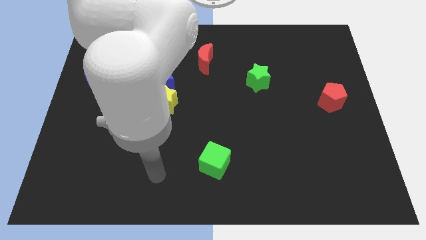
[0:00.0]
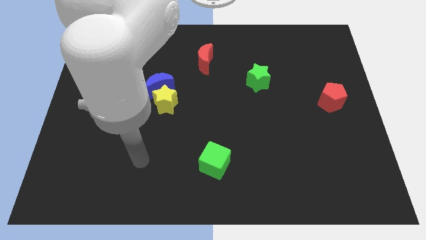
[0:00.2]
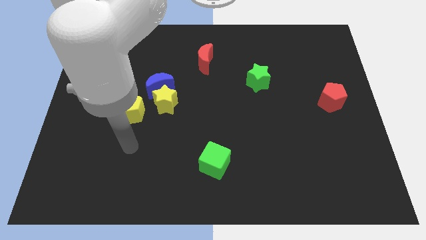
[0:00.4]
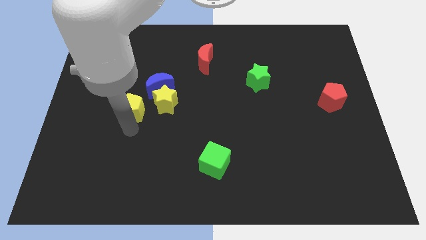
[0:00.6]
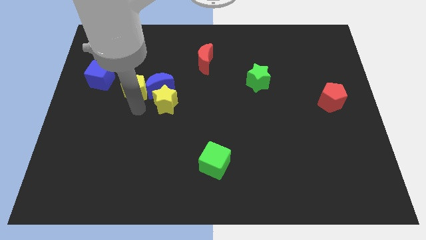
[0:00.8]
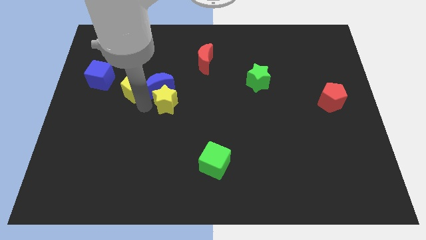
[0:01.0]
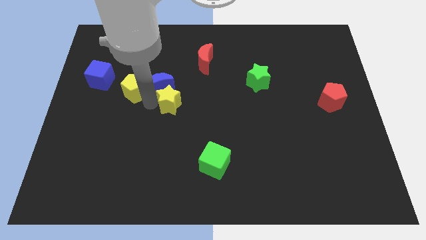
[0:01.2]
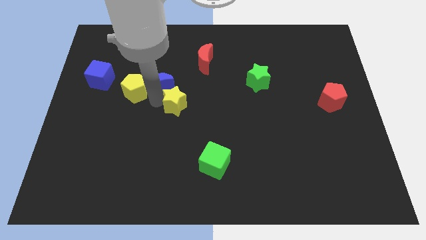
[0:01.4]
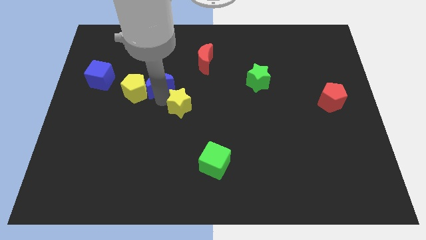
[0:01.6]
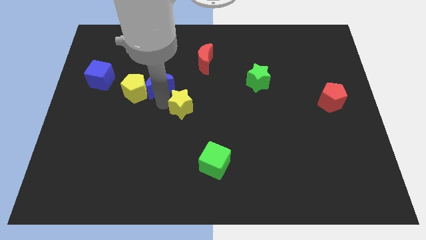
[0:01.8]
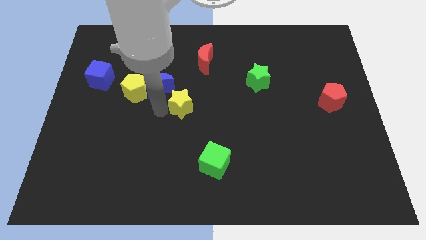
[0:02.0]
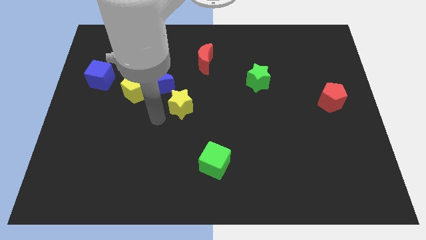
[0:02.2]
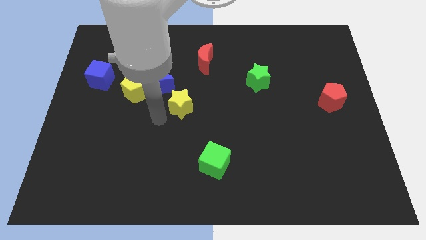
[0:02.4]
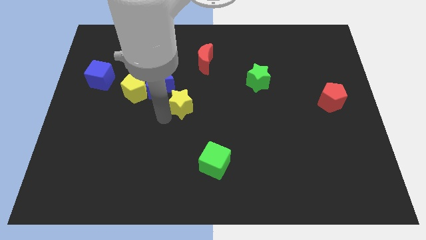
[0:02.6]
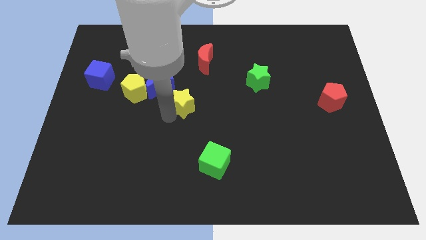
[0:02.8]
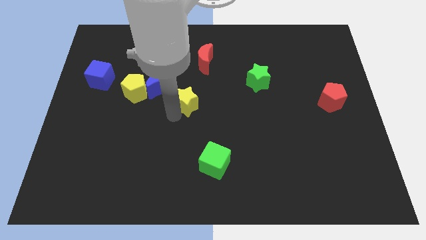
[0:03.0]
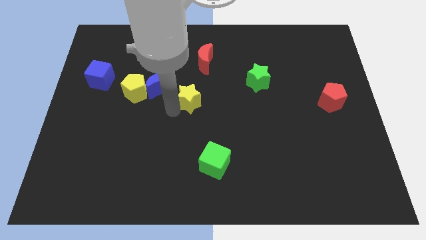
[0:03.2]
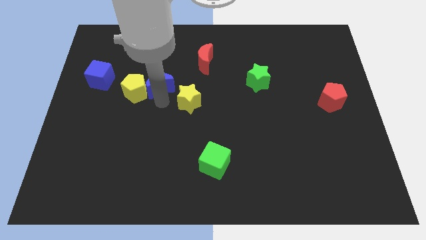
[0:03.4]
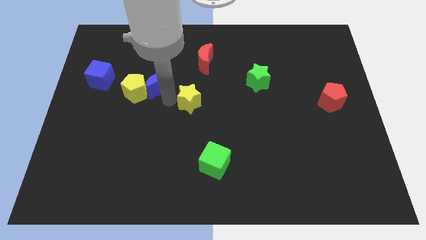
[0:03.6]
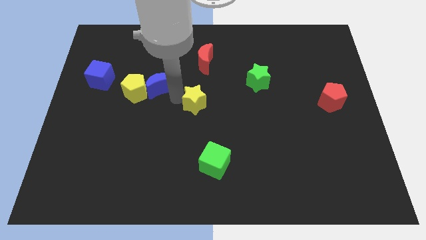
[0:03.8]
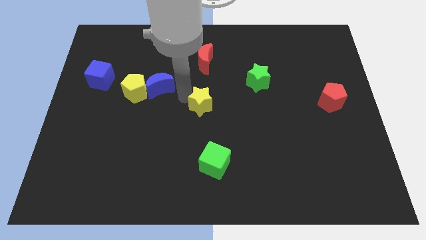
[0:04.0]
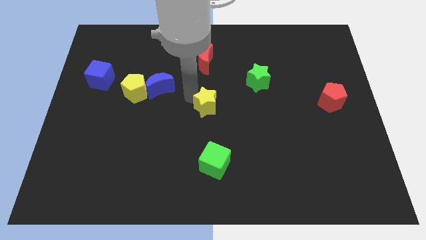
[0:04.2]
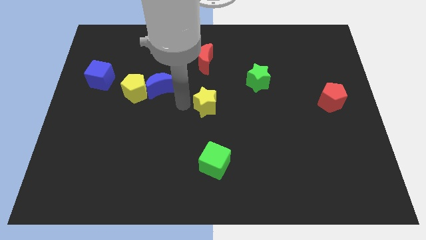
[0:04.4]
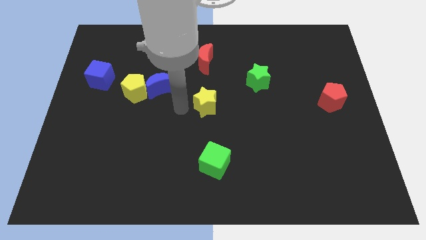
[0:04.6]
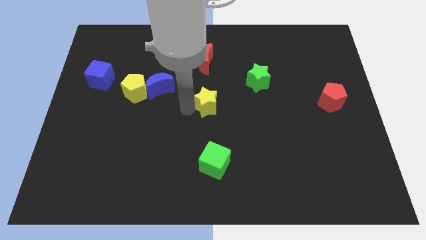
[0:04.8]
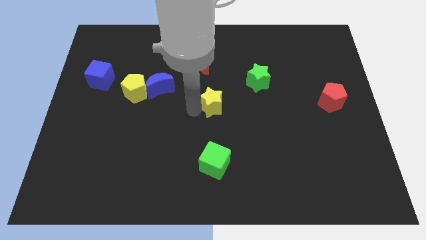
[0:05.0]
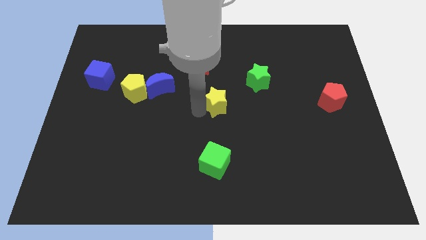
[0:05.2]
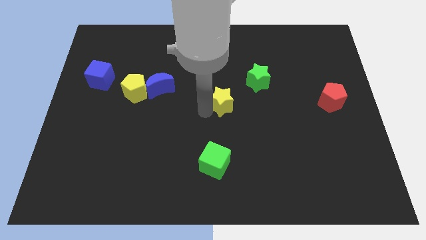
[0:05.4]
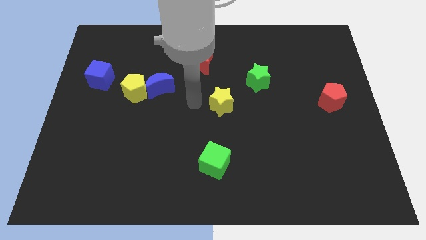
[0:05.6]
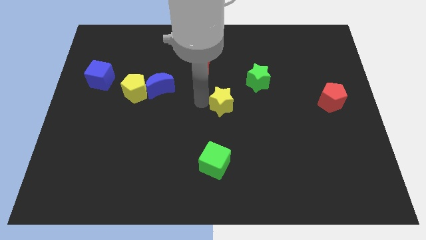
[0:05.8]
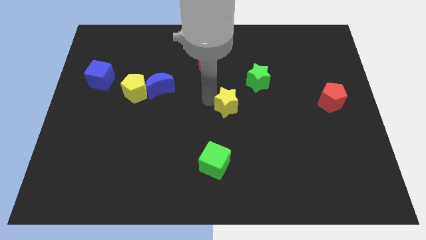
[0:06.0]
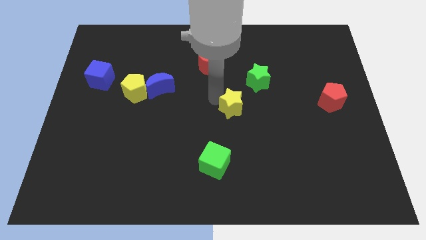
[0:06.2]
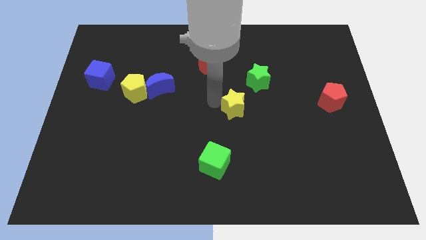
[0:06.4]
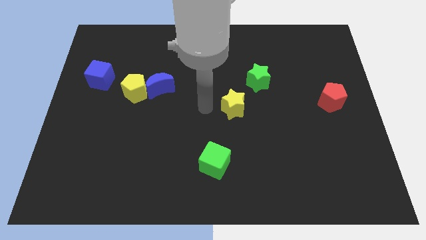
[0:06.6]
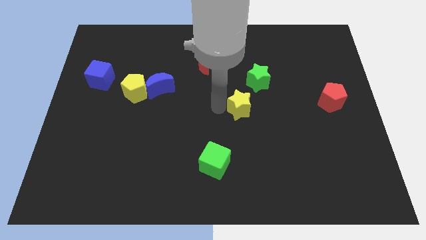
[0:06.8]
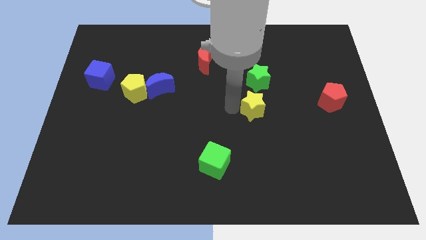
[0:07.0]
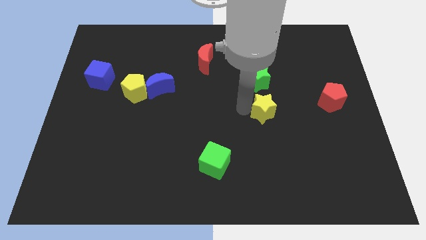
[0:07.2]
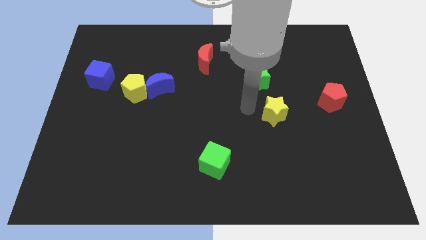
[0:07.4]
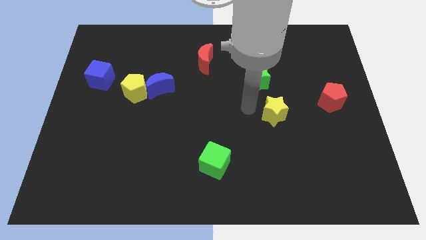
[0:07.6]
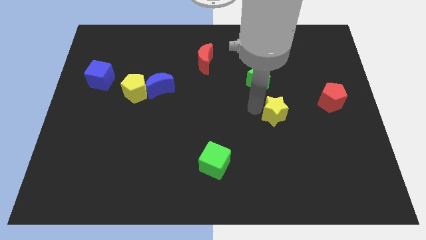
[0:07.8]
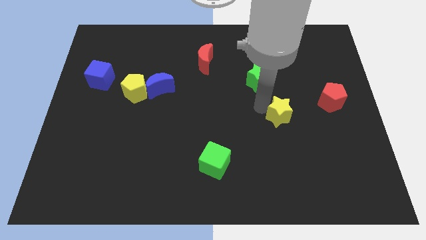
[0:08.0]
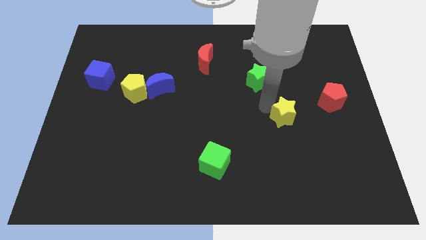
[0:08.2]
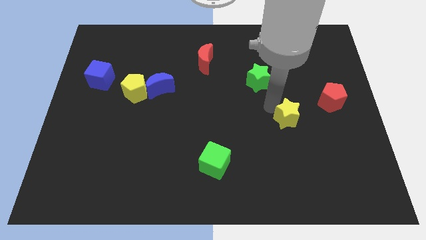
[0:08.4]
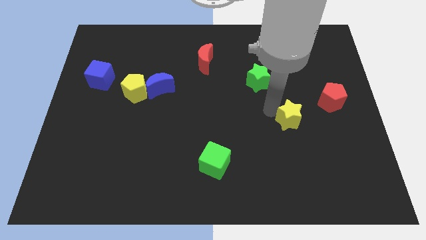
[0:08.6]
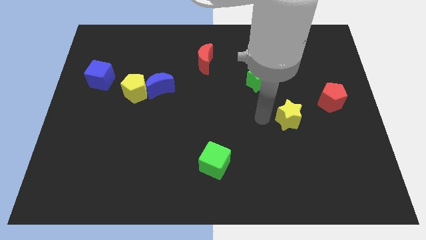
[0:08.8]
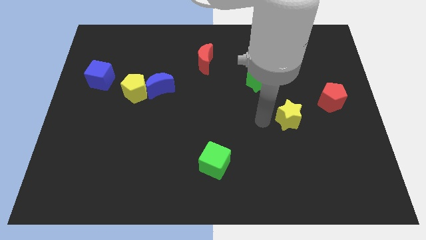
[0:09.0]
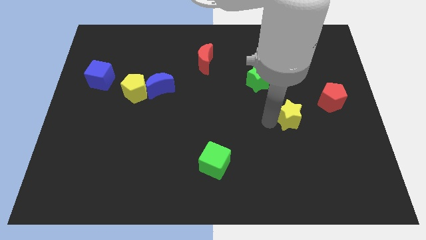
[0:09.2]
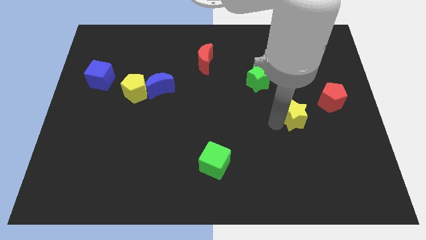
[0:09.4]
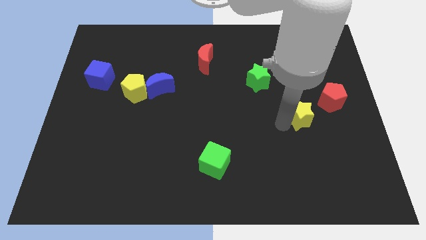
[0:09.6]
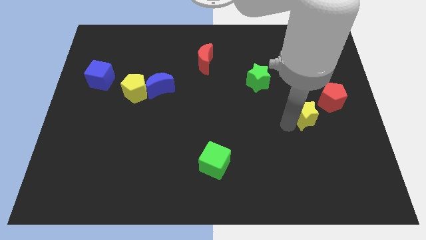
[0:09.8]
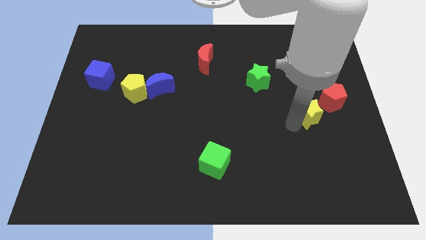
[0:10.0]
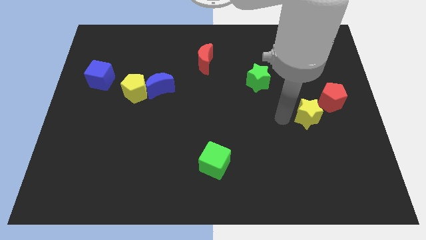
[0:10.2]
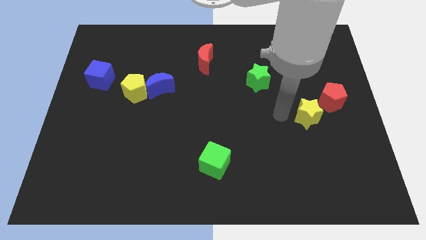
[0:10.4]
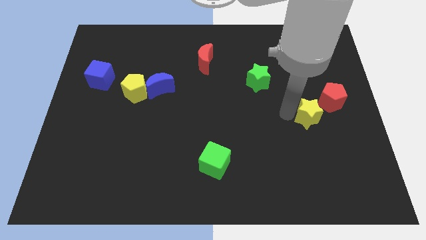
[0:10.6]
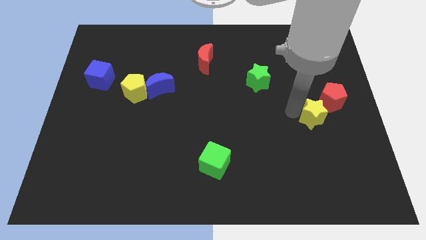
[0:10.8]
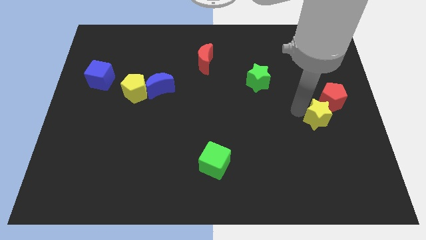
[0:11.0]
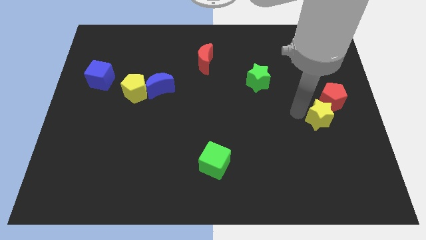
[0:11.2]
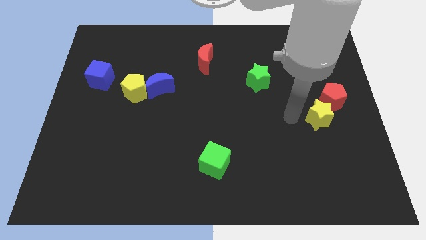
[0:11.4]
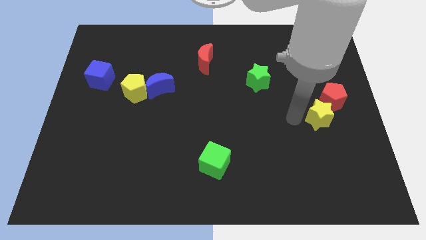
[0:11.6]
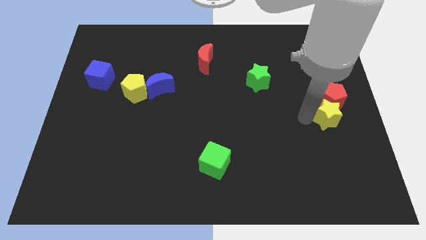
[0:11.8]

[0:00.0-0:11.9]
put the yellow star to the right side

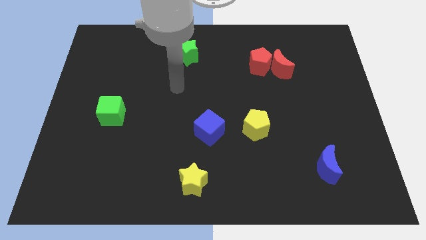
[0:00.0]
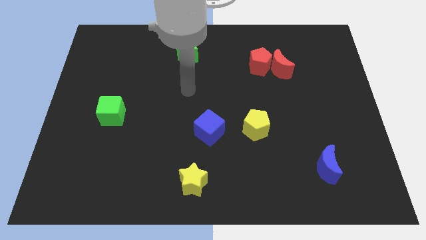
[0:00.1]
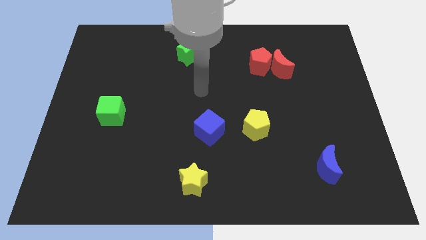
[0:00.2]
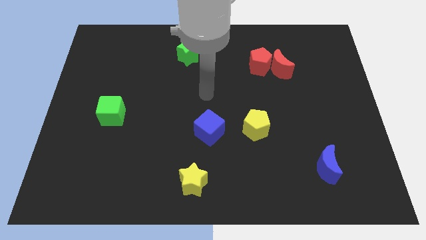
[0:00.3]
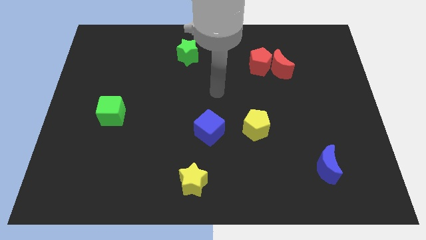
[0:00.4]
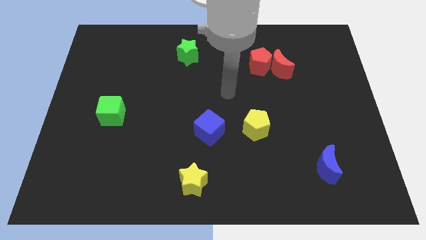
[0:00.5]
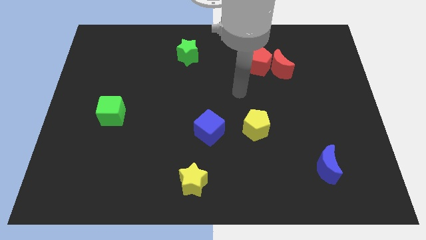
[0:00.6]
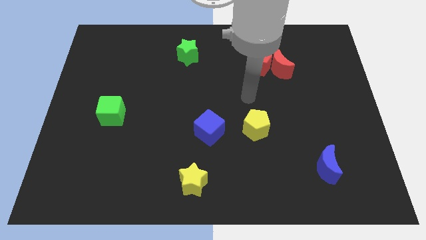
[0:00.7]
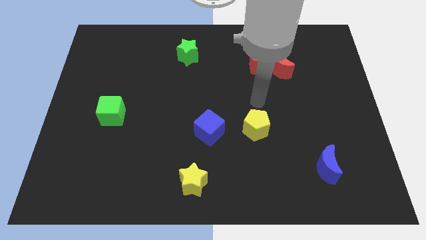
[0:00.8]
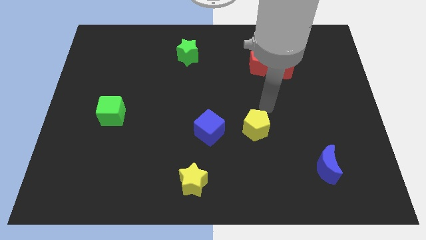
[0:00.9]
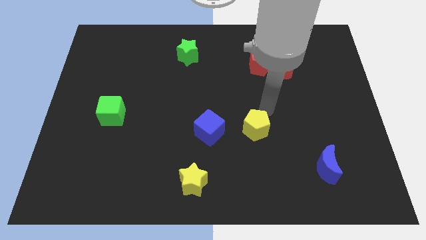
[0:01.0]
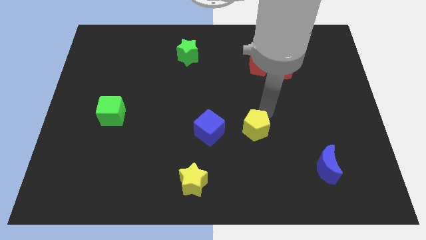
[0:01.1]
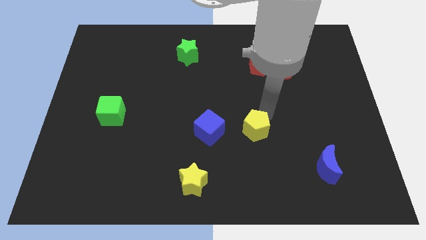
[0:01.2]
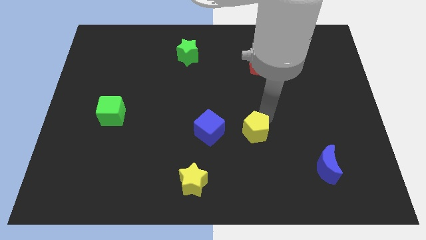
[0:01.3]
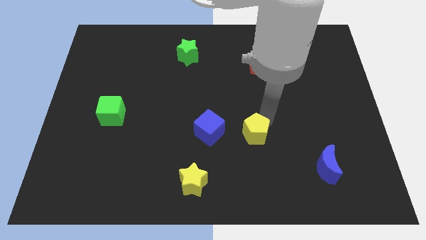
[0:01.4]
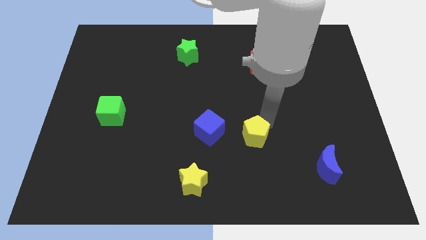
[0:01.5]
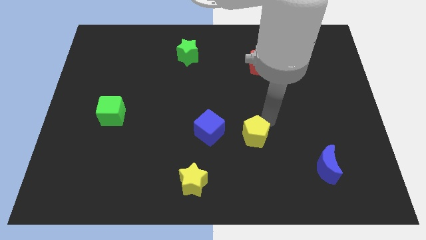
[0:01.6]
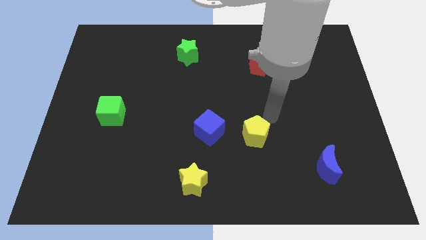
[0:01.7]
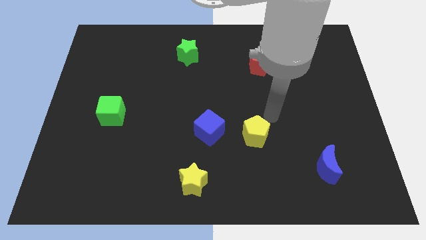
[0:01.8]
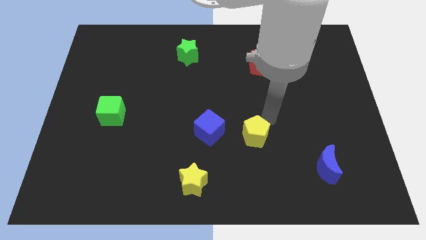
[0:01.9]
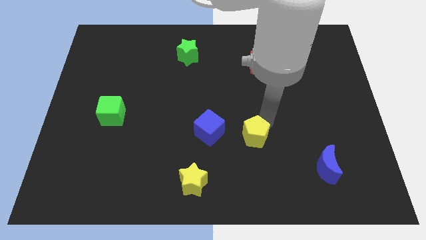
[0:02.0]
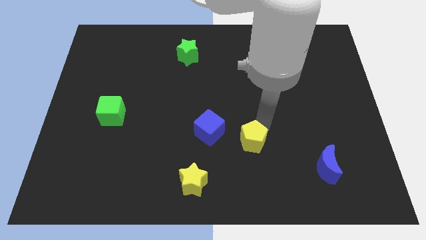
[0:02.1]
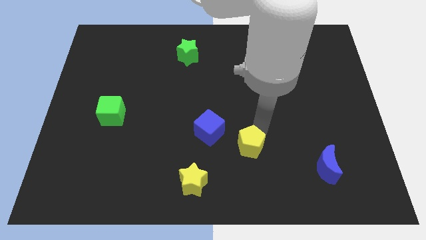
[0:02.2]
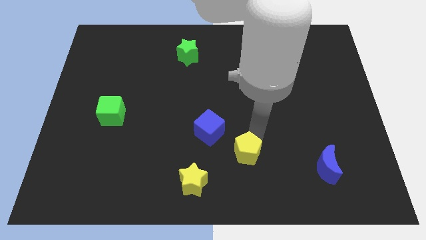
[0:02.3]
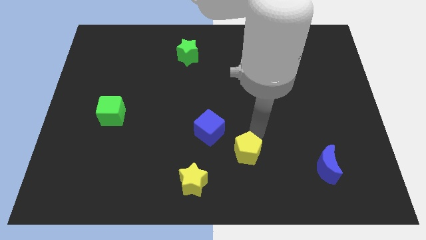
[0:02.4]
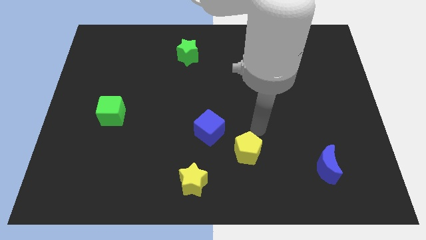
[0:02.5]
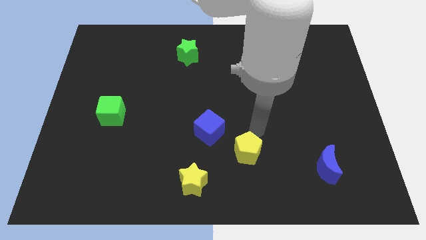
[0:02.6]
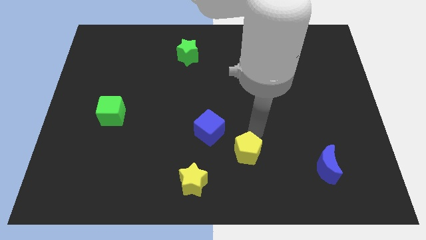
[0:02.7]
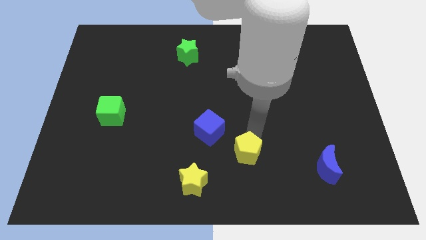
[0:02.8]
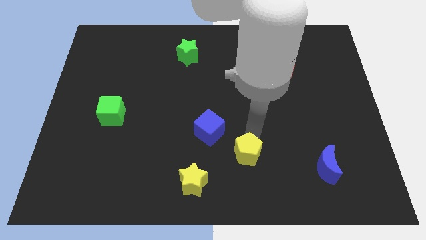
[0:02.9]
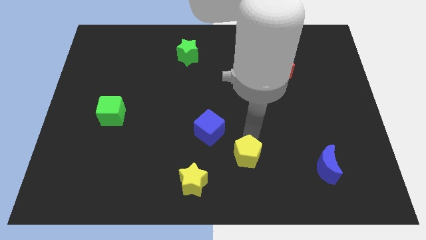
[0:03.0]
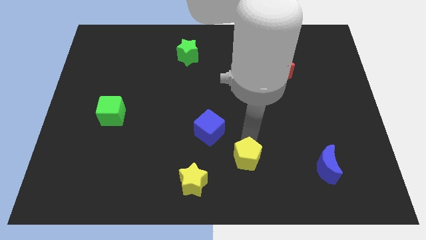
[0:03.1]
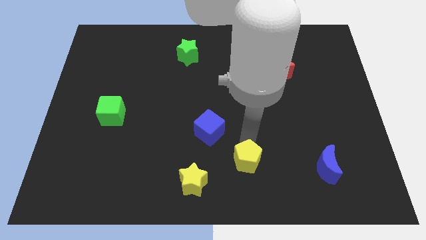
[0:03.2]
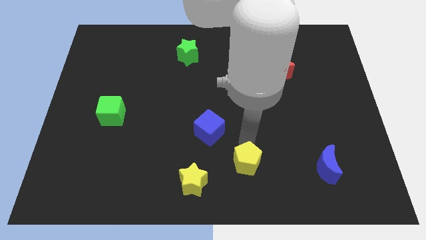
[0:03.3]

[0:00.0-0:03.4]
put the yellow pentagon to the bottom
